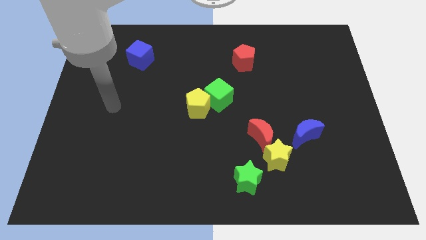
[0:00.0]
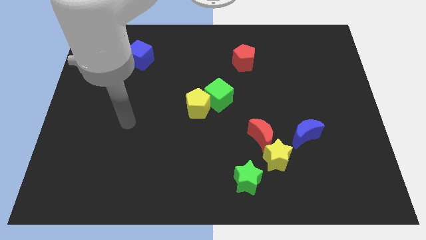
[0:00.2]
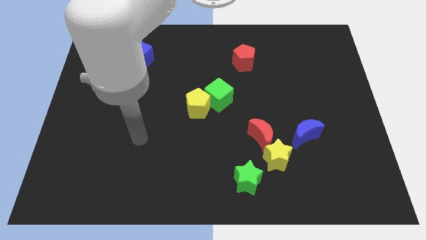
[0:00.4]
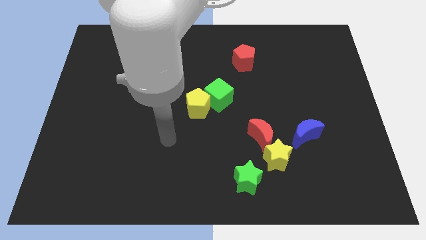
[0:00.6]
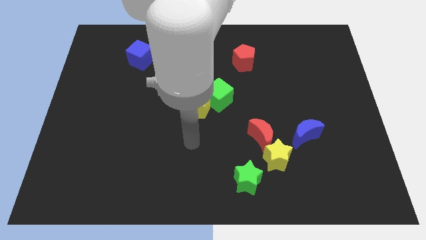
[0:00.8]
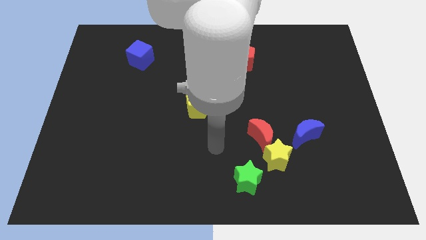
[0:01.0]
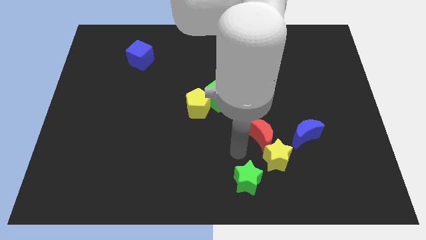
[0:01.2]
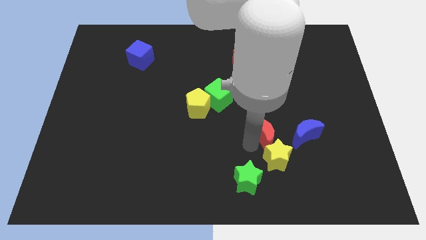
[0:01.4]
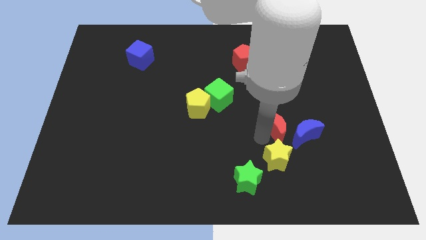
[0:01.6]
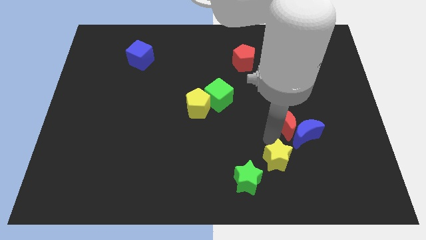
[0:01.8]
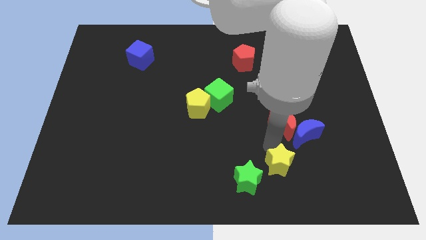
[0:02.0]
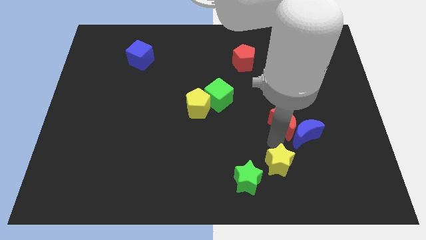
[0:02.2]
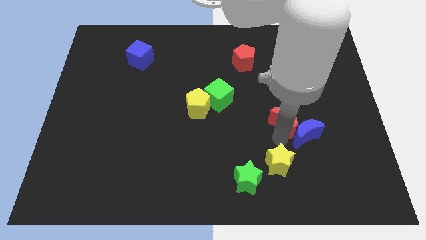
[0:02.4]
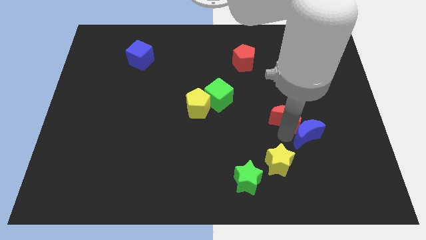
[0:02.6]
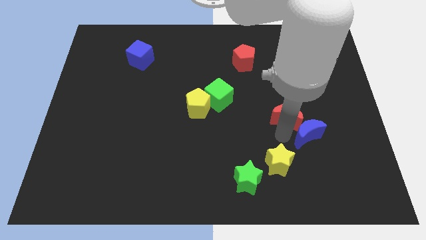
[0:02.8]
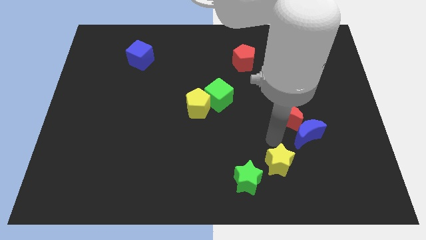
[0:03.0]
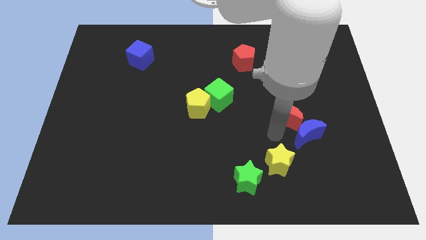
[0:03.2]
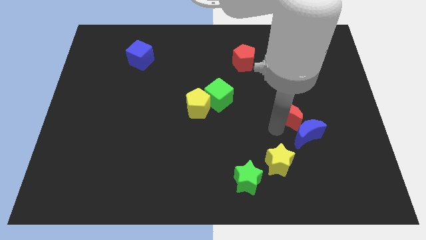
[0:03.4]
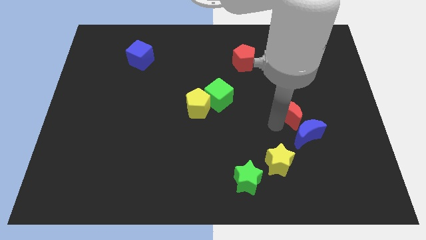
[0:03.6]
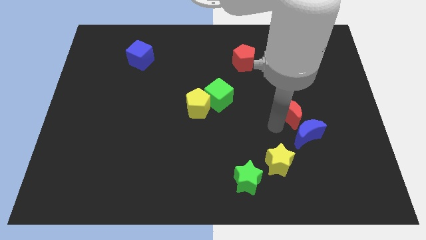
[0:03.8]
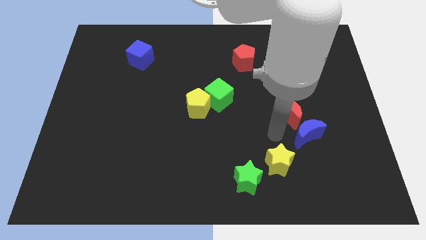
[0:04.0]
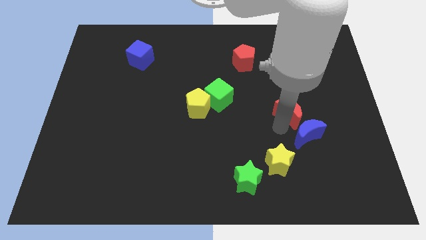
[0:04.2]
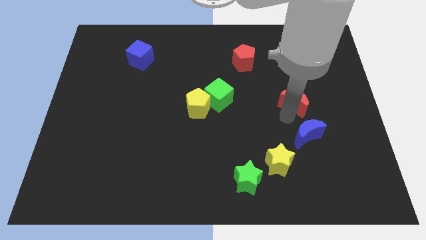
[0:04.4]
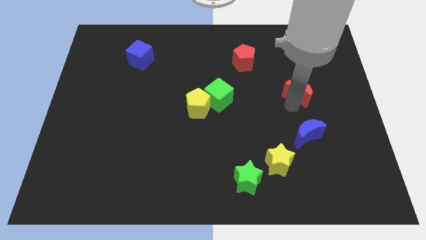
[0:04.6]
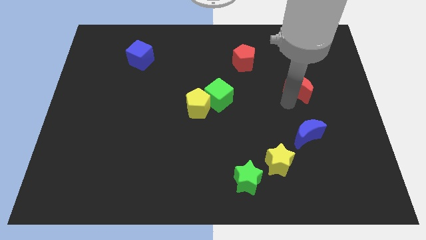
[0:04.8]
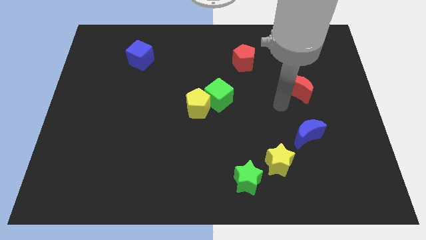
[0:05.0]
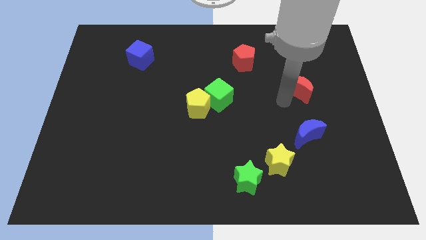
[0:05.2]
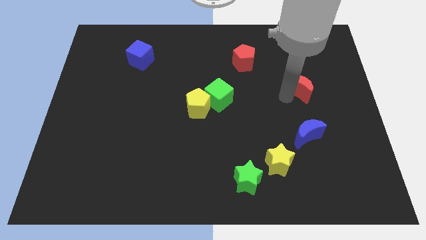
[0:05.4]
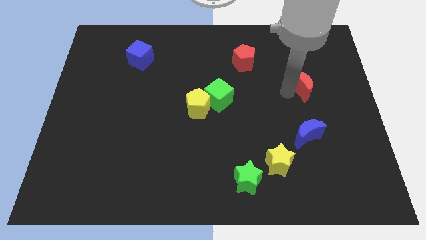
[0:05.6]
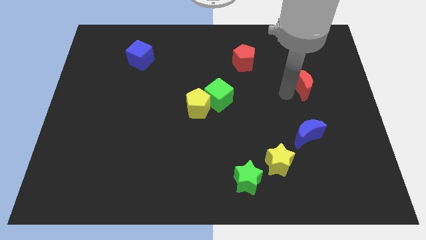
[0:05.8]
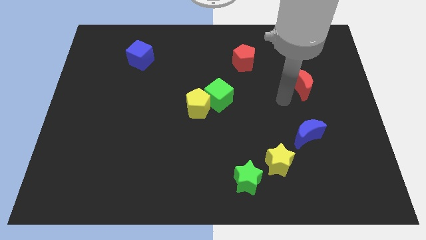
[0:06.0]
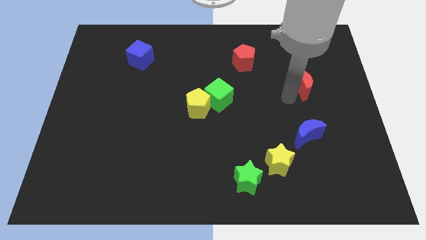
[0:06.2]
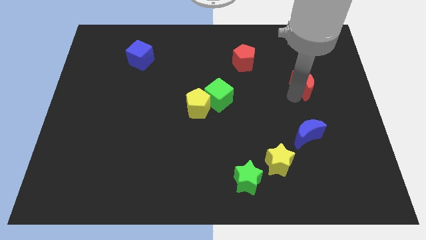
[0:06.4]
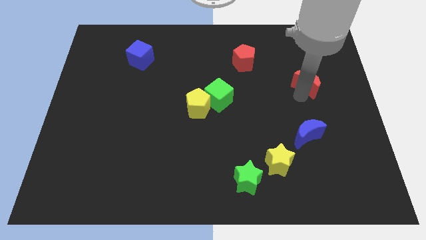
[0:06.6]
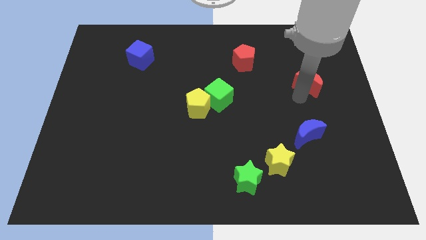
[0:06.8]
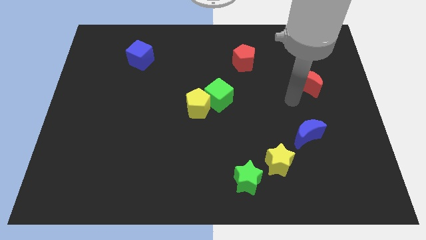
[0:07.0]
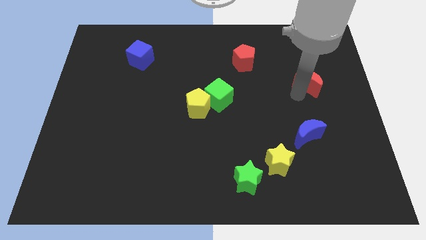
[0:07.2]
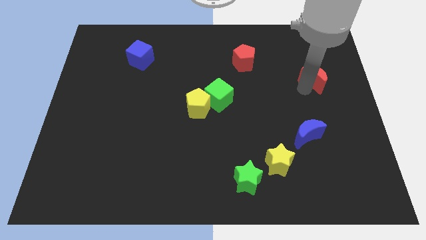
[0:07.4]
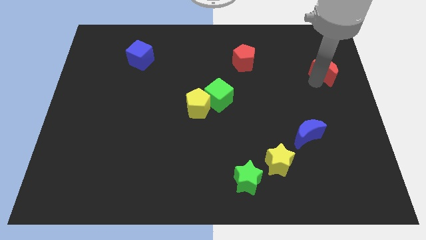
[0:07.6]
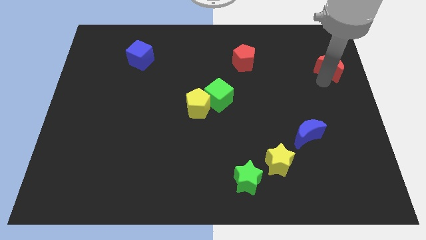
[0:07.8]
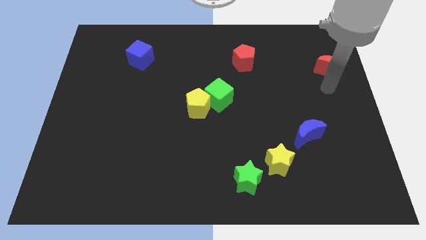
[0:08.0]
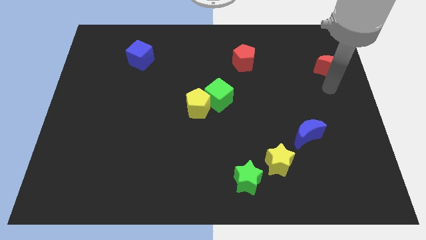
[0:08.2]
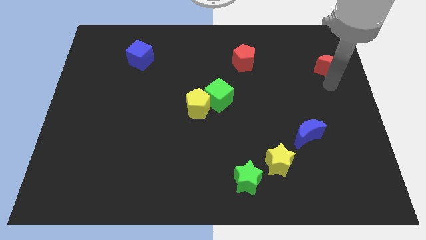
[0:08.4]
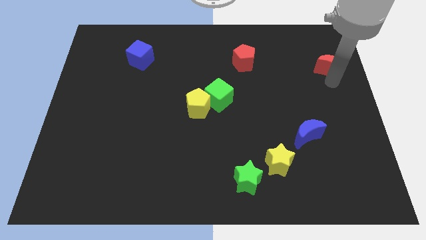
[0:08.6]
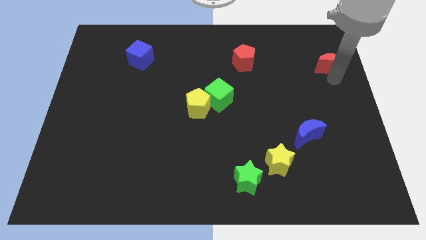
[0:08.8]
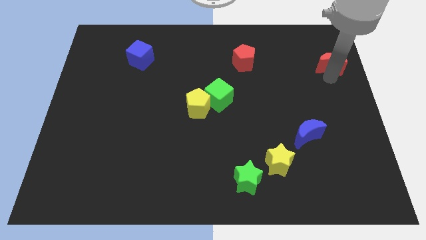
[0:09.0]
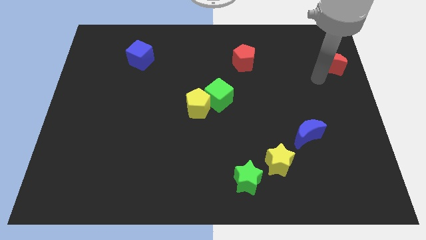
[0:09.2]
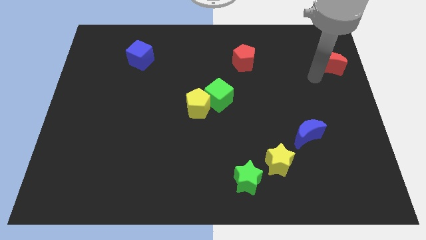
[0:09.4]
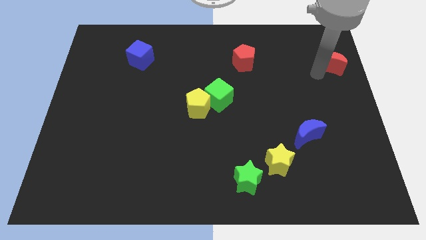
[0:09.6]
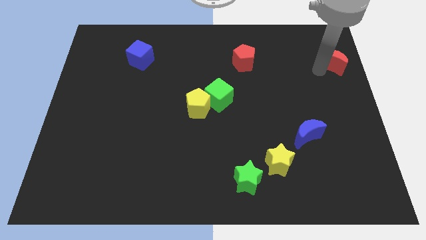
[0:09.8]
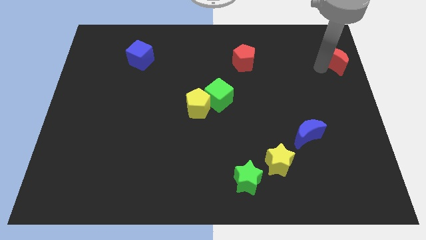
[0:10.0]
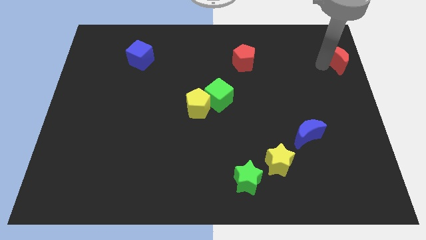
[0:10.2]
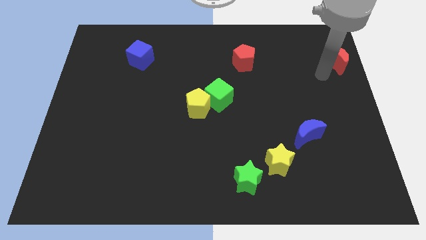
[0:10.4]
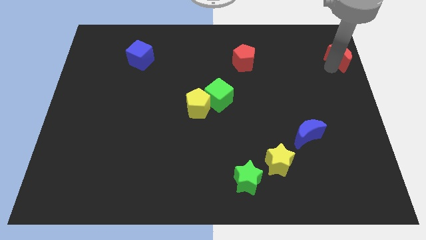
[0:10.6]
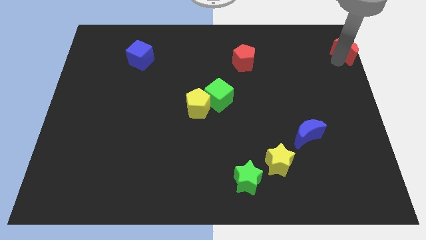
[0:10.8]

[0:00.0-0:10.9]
slide the red moon to the top right corner

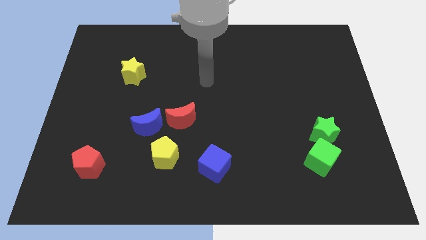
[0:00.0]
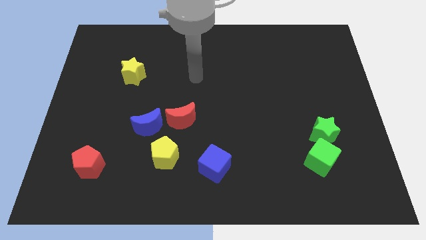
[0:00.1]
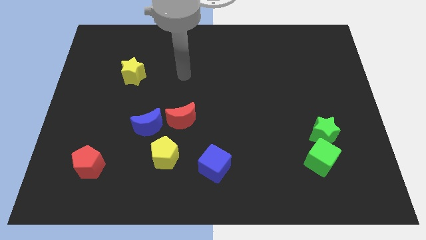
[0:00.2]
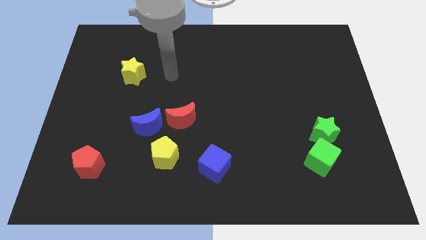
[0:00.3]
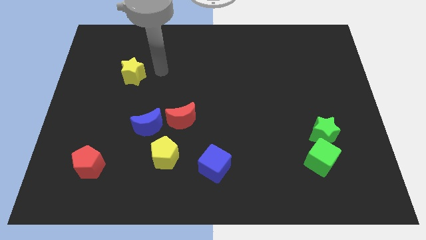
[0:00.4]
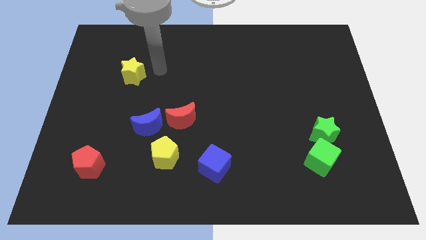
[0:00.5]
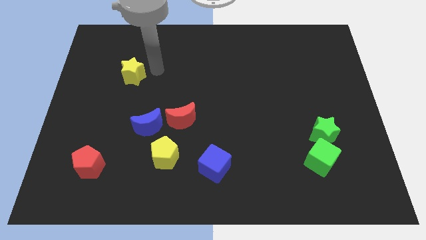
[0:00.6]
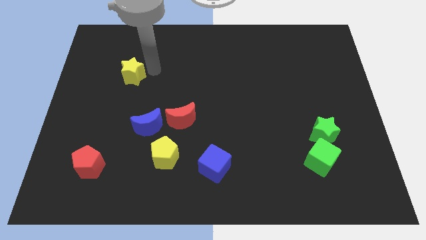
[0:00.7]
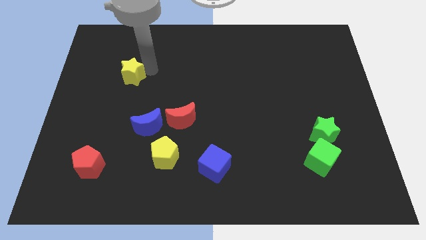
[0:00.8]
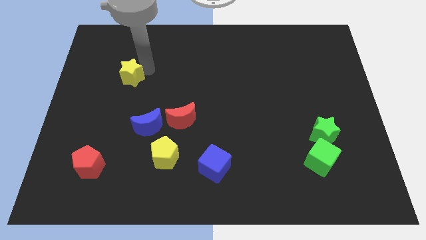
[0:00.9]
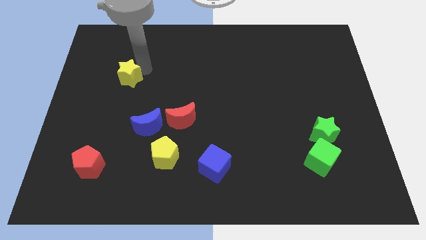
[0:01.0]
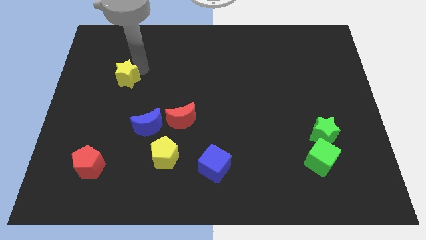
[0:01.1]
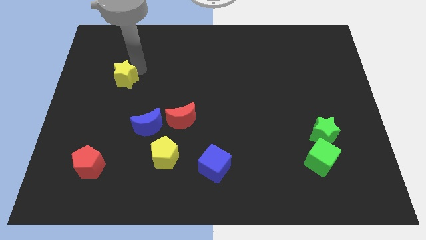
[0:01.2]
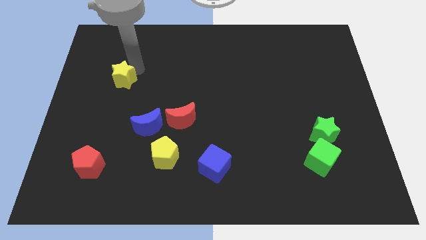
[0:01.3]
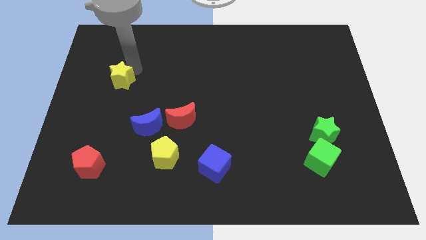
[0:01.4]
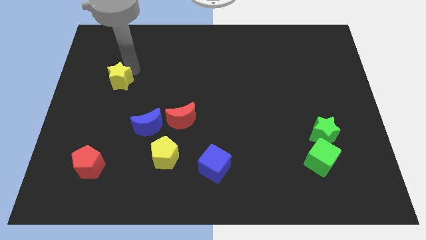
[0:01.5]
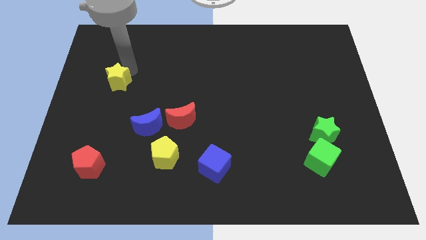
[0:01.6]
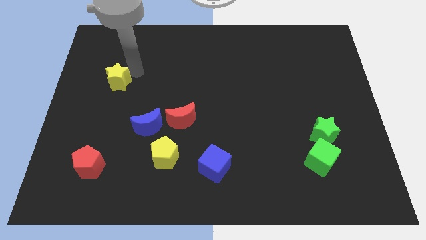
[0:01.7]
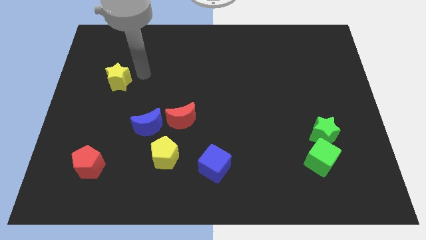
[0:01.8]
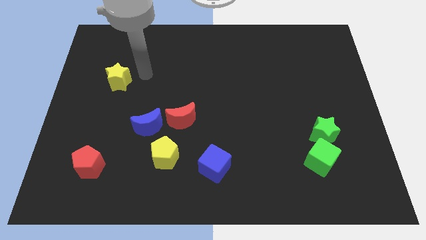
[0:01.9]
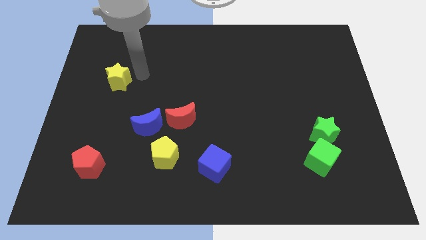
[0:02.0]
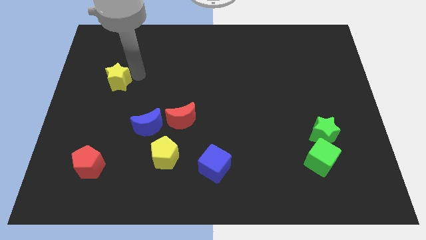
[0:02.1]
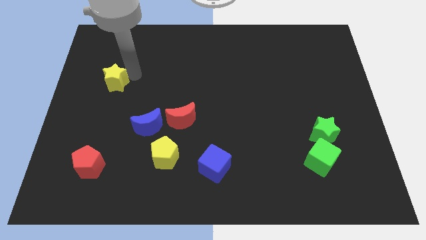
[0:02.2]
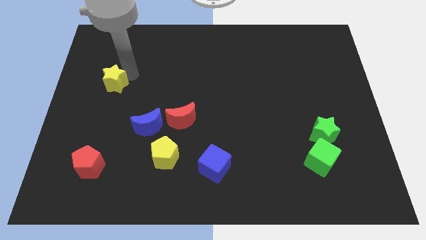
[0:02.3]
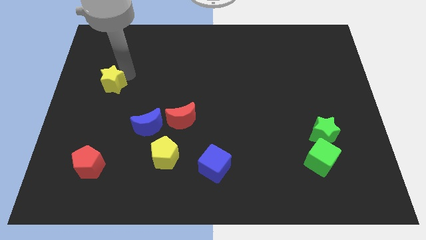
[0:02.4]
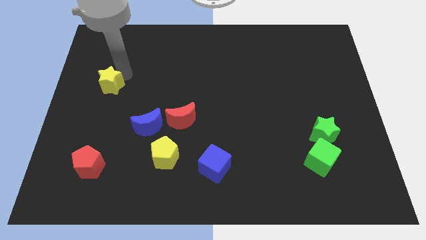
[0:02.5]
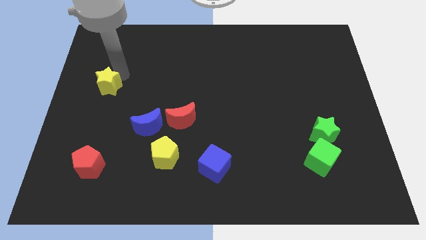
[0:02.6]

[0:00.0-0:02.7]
put the yellow star to the left side
